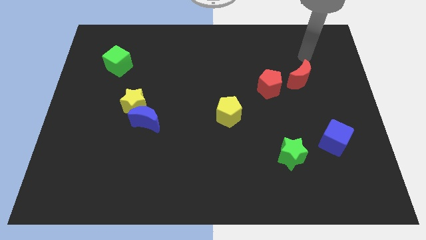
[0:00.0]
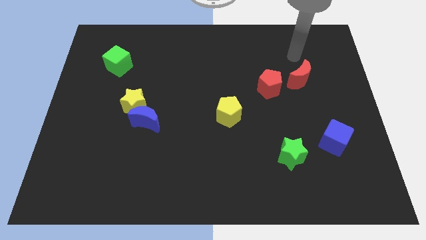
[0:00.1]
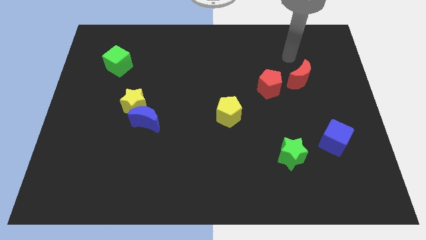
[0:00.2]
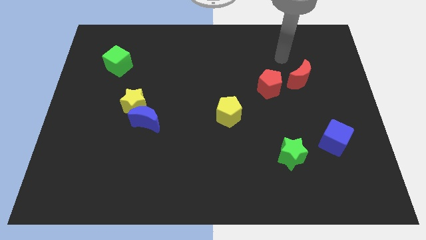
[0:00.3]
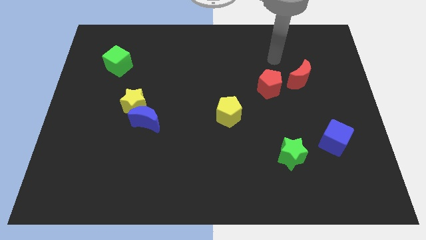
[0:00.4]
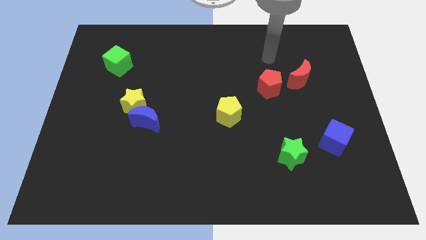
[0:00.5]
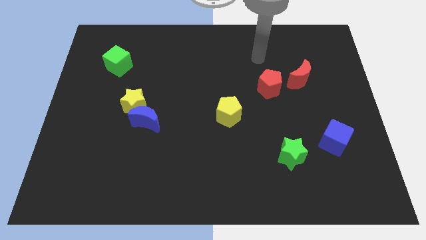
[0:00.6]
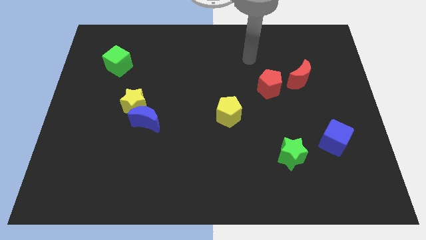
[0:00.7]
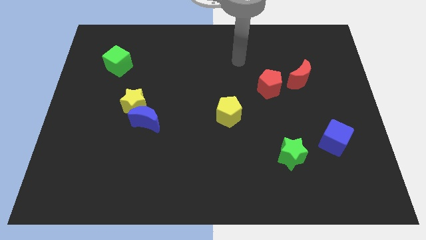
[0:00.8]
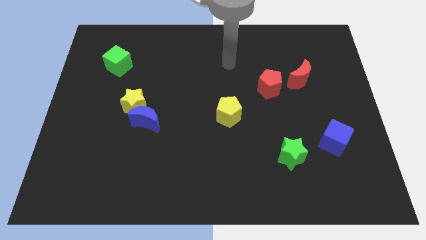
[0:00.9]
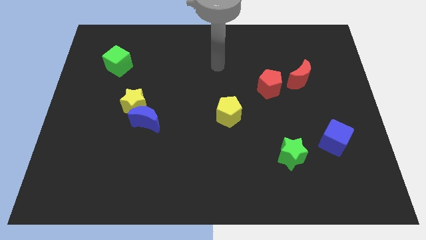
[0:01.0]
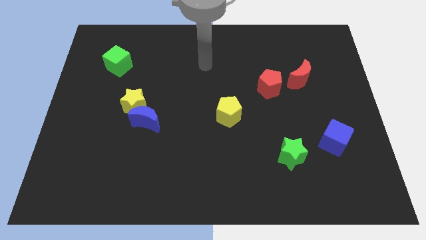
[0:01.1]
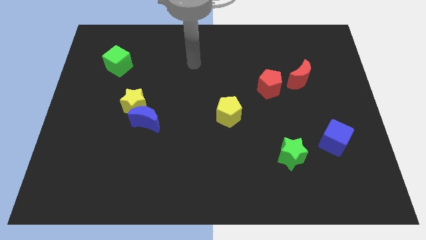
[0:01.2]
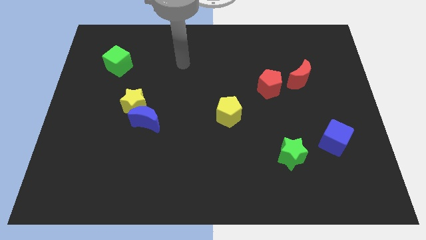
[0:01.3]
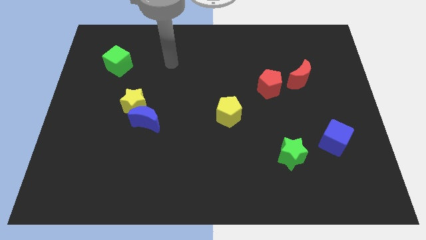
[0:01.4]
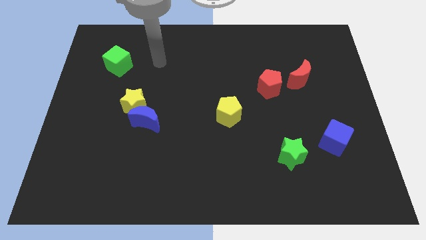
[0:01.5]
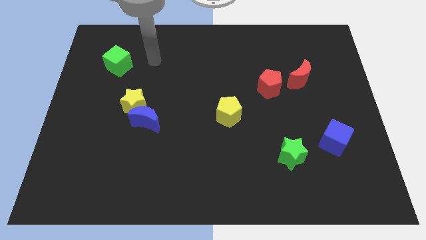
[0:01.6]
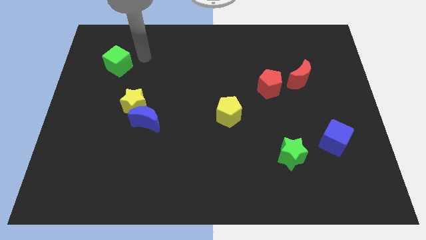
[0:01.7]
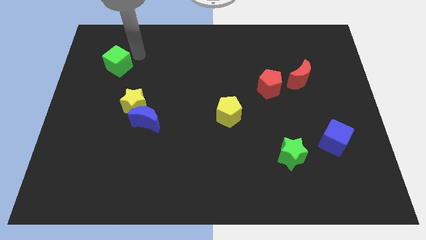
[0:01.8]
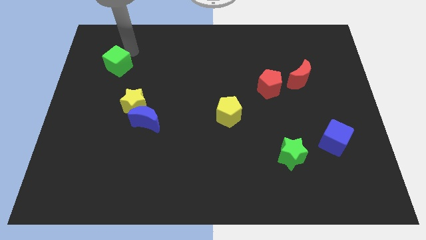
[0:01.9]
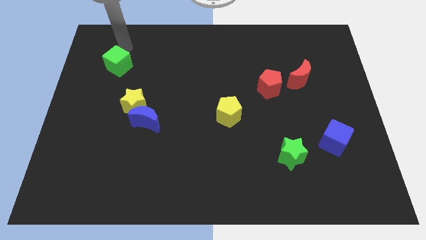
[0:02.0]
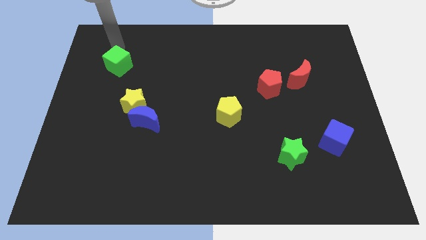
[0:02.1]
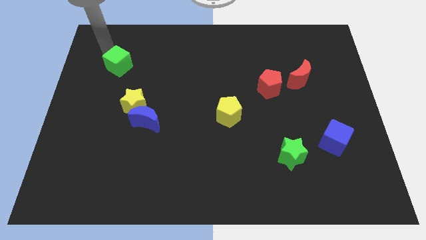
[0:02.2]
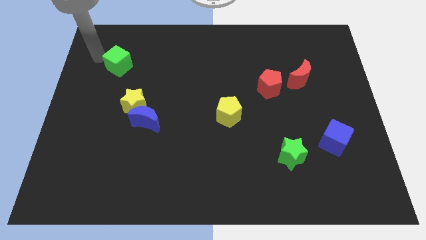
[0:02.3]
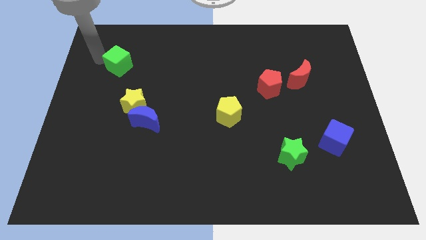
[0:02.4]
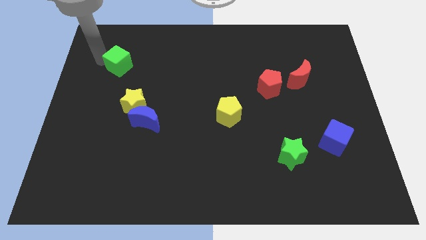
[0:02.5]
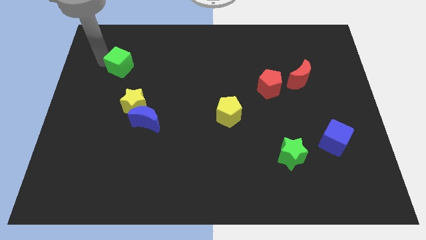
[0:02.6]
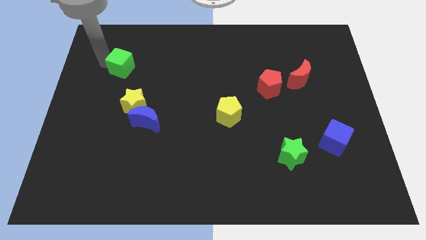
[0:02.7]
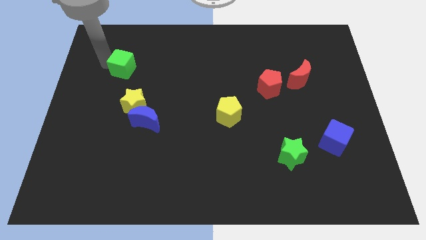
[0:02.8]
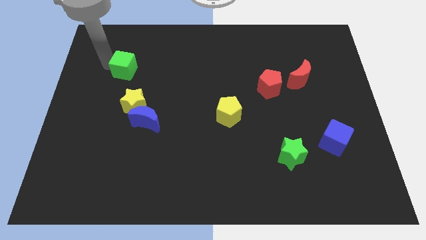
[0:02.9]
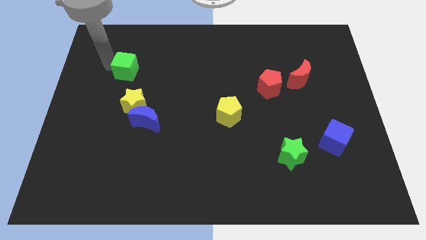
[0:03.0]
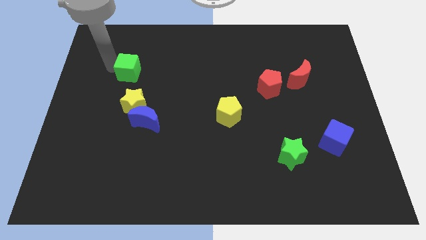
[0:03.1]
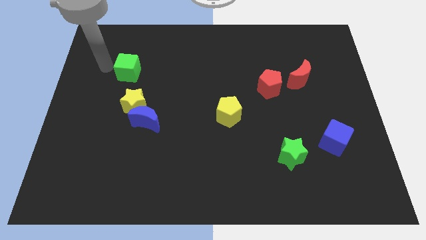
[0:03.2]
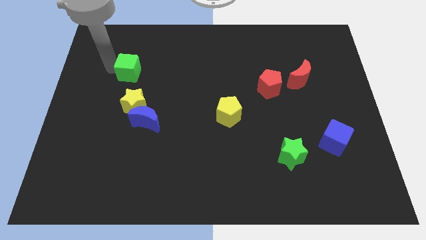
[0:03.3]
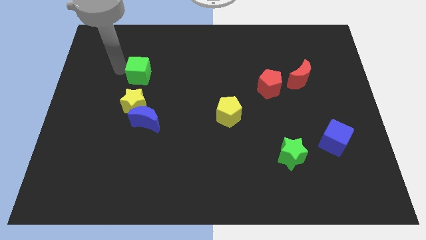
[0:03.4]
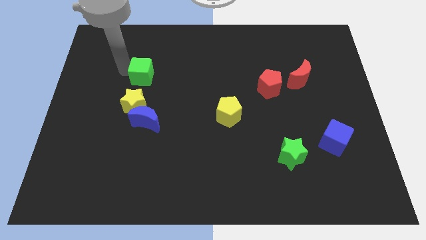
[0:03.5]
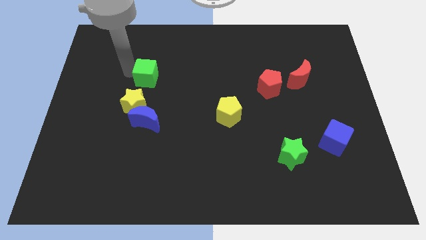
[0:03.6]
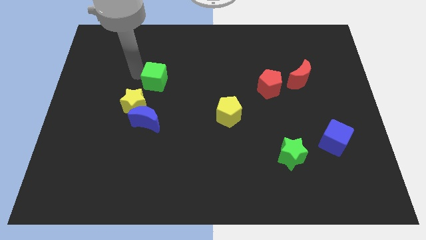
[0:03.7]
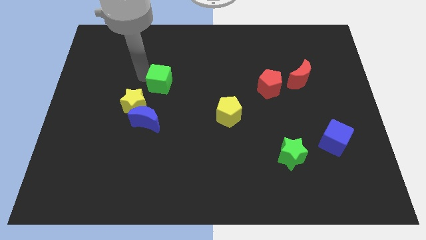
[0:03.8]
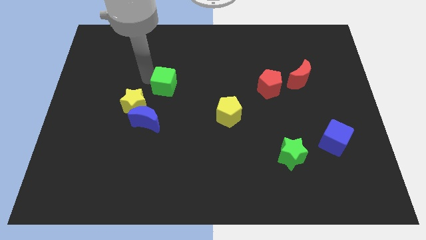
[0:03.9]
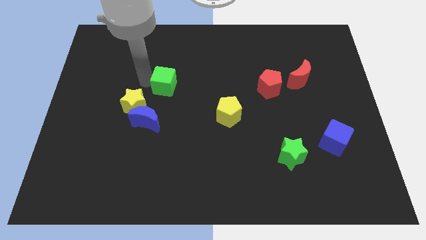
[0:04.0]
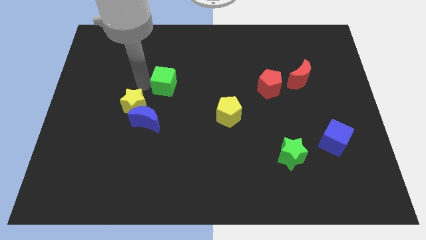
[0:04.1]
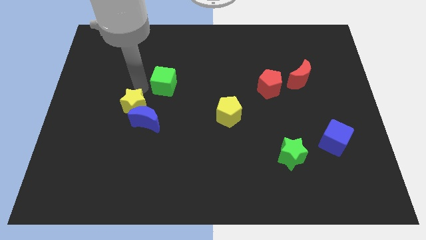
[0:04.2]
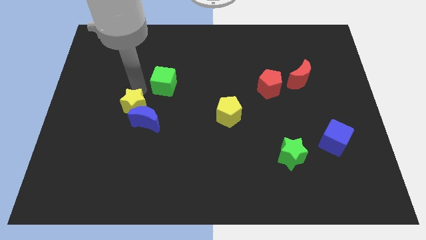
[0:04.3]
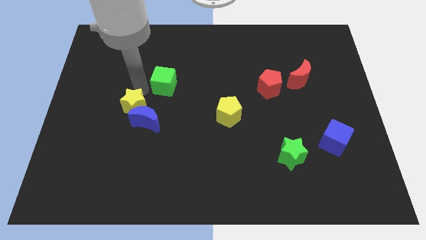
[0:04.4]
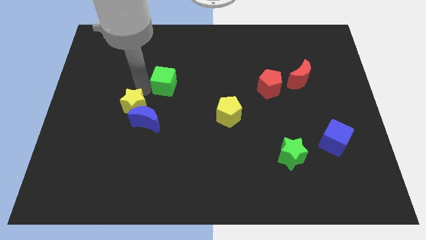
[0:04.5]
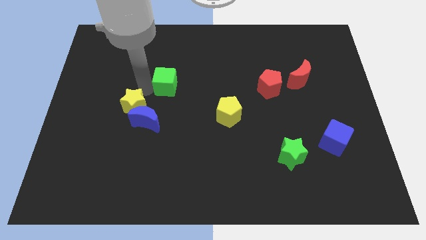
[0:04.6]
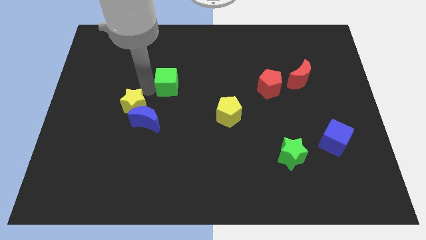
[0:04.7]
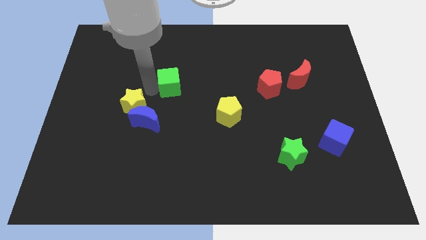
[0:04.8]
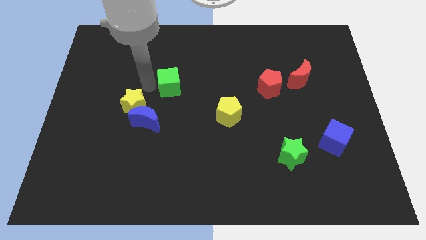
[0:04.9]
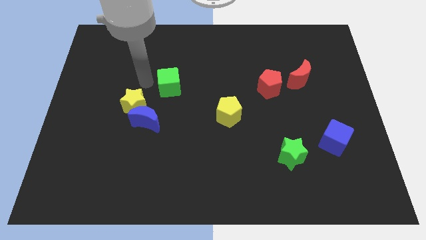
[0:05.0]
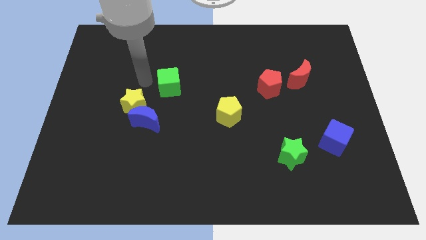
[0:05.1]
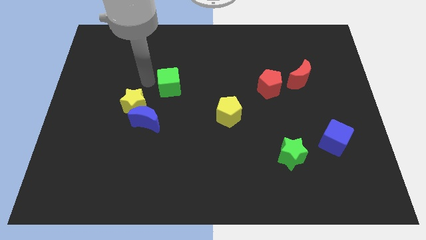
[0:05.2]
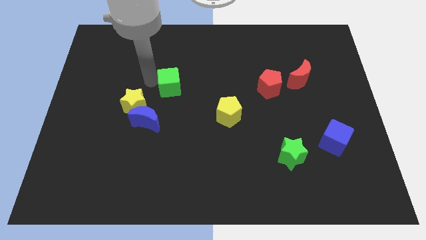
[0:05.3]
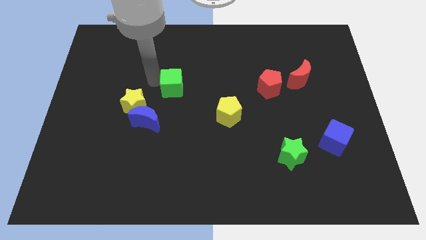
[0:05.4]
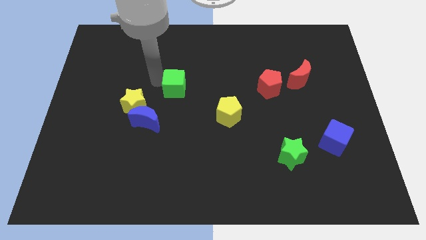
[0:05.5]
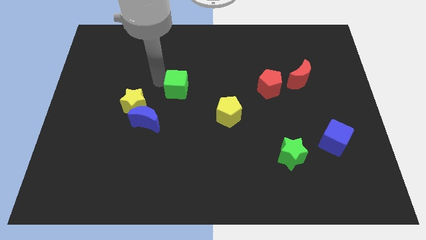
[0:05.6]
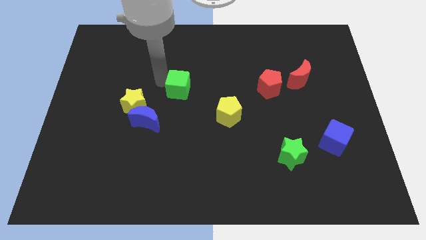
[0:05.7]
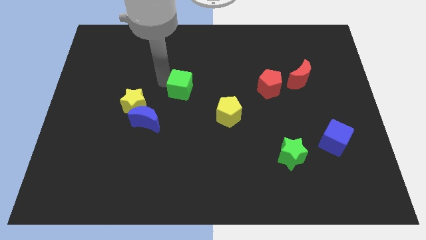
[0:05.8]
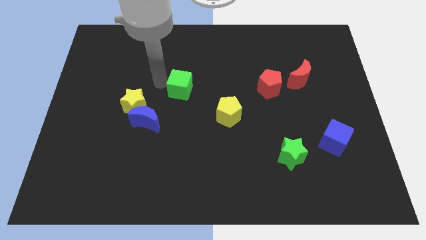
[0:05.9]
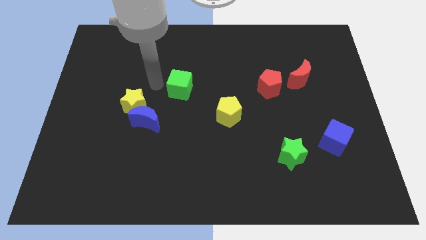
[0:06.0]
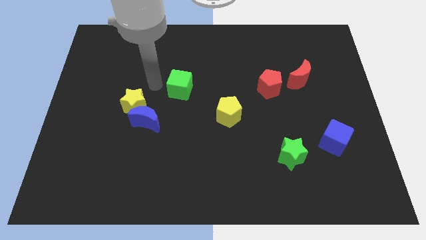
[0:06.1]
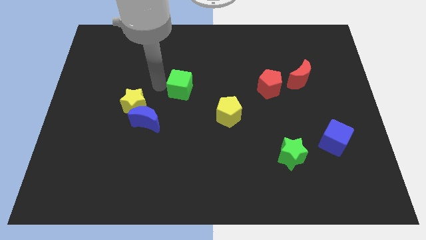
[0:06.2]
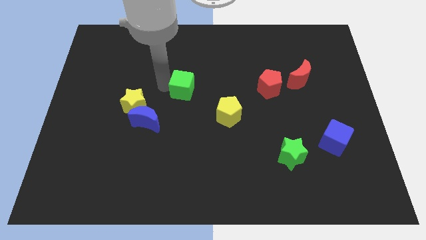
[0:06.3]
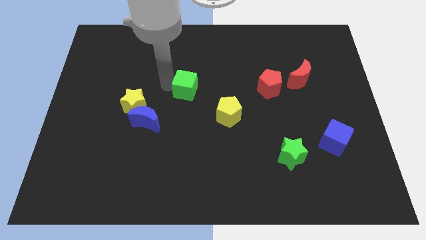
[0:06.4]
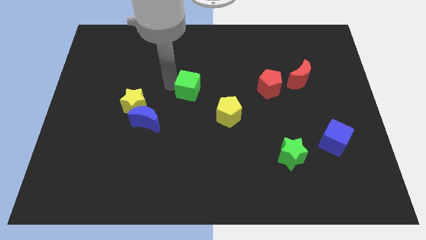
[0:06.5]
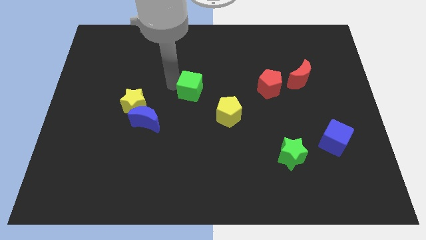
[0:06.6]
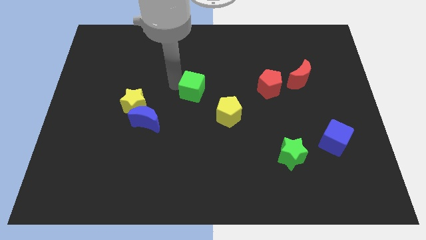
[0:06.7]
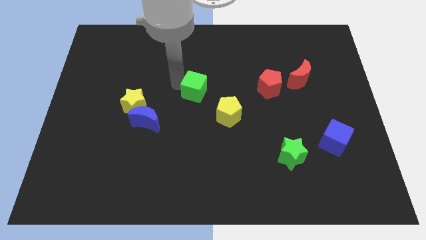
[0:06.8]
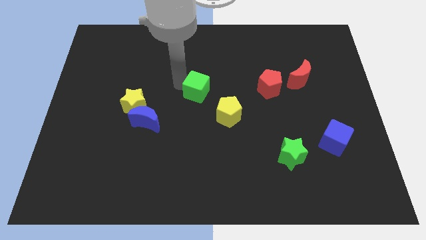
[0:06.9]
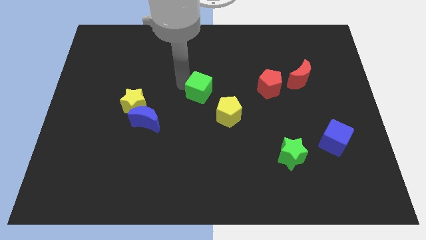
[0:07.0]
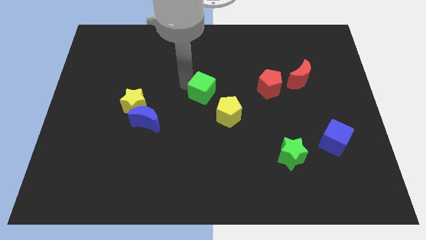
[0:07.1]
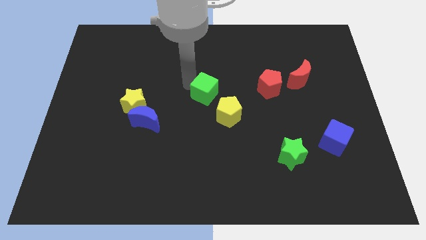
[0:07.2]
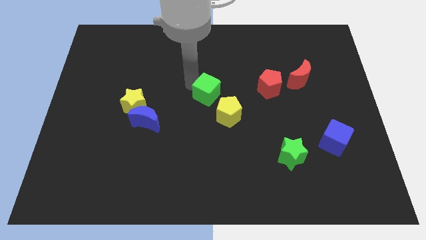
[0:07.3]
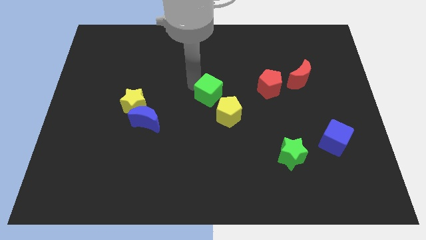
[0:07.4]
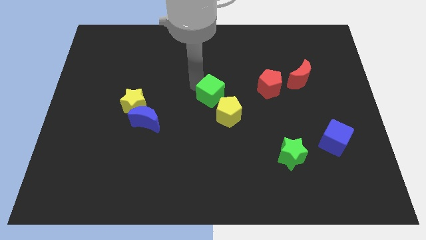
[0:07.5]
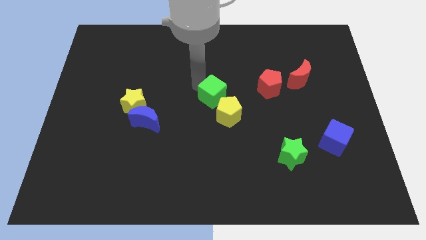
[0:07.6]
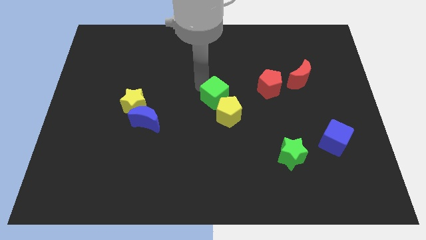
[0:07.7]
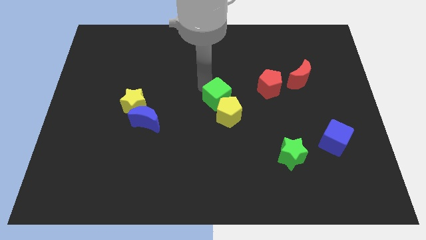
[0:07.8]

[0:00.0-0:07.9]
slide the green cube close to the yellow pentagon
